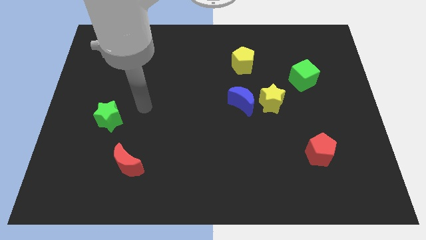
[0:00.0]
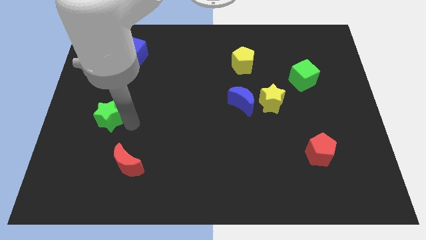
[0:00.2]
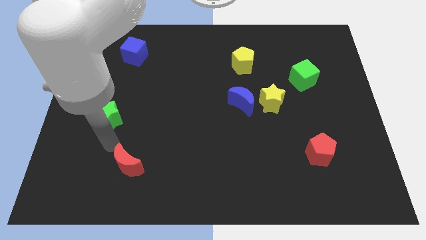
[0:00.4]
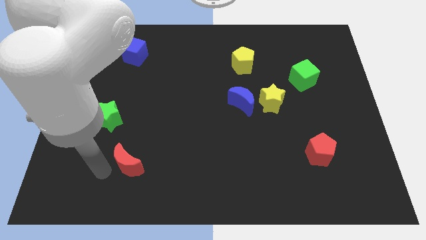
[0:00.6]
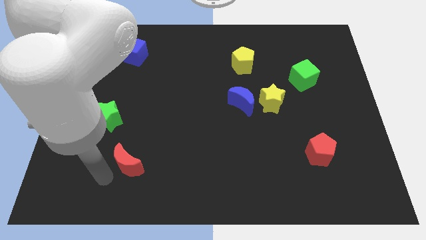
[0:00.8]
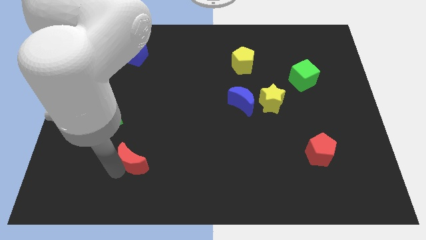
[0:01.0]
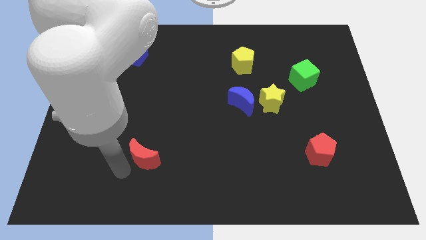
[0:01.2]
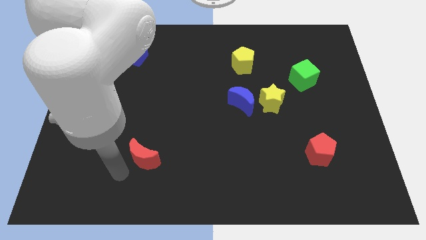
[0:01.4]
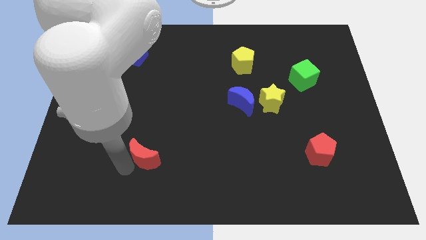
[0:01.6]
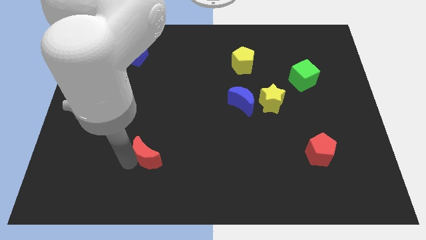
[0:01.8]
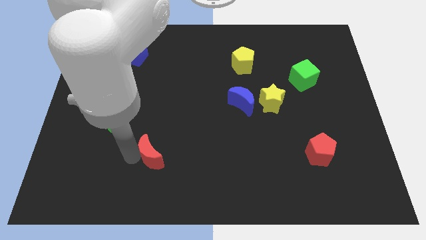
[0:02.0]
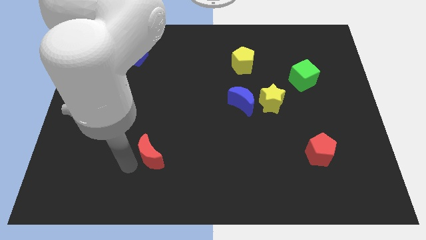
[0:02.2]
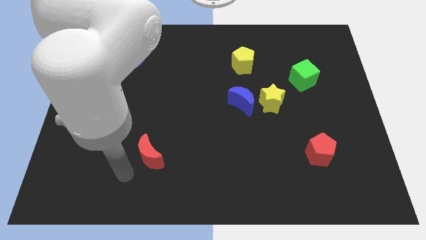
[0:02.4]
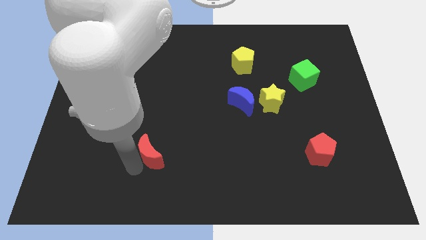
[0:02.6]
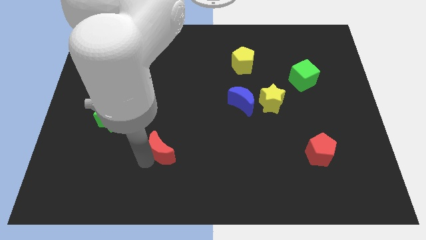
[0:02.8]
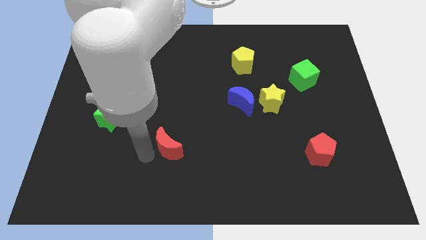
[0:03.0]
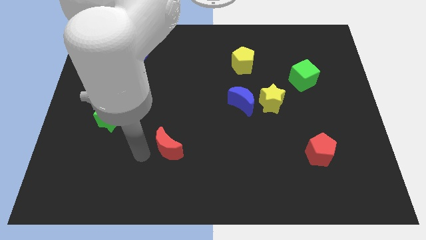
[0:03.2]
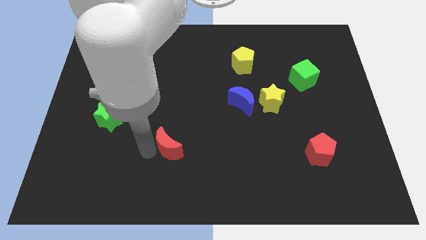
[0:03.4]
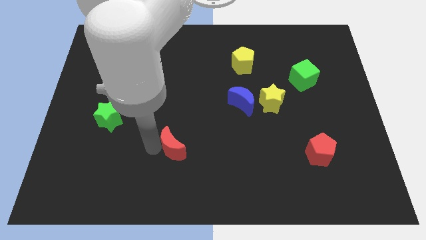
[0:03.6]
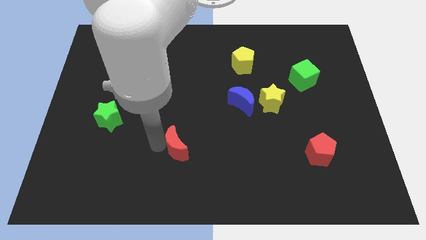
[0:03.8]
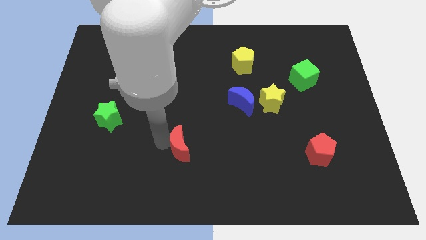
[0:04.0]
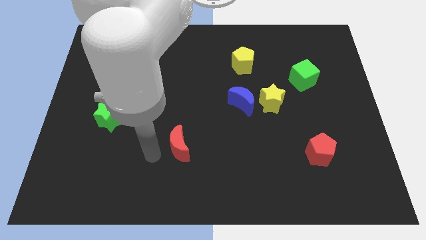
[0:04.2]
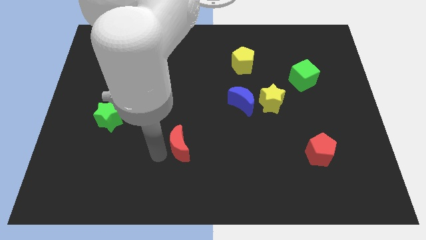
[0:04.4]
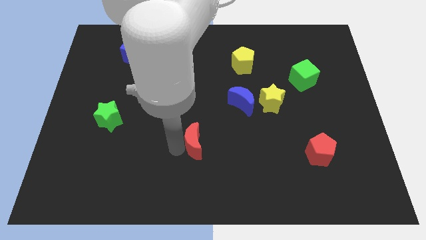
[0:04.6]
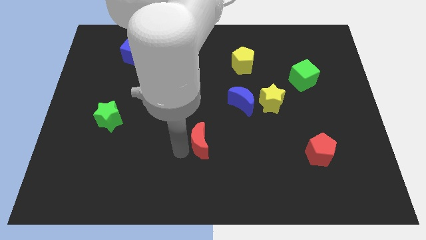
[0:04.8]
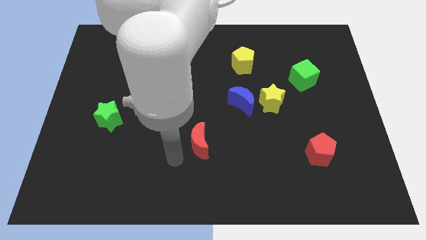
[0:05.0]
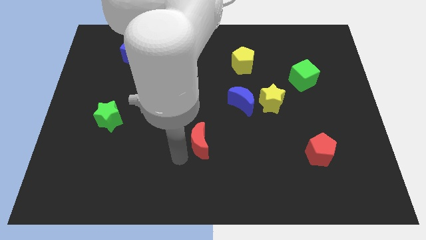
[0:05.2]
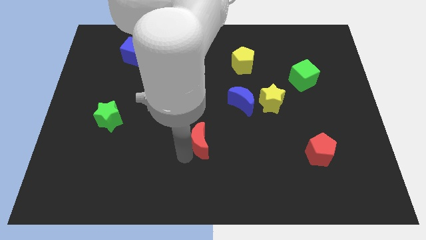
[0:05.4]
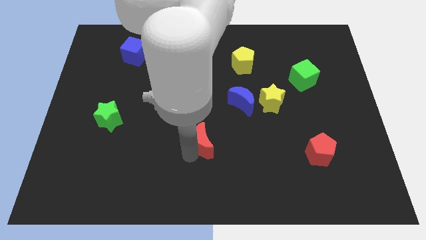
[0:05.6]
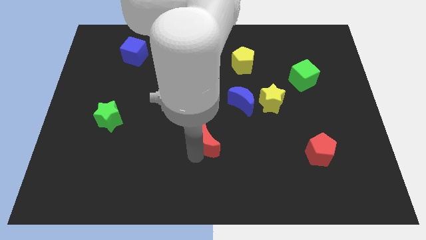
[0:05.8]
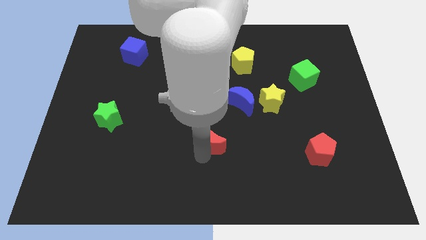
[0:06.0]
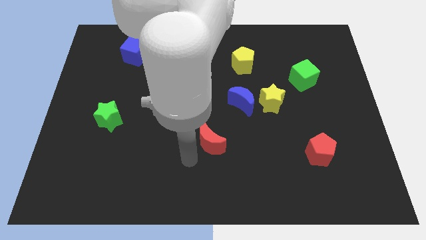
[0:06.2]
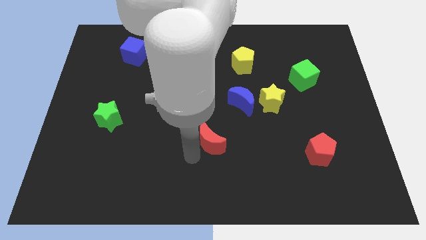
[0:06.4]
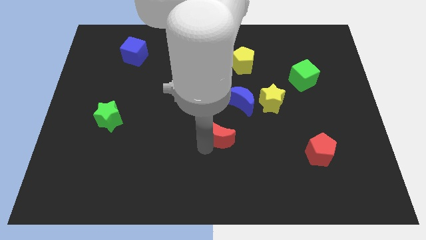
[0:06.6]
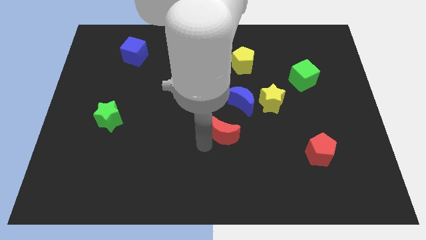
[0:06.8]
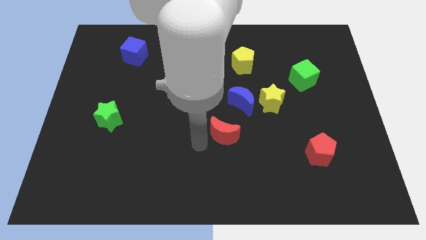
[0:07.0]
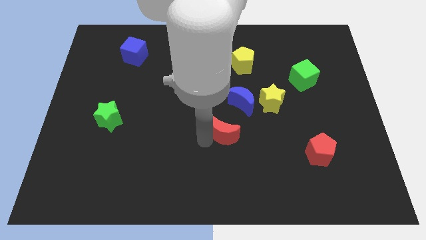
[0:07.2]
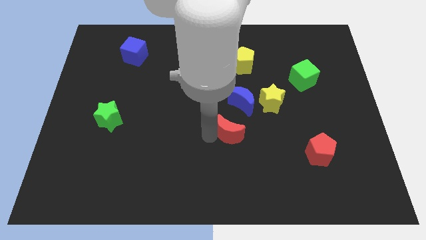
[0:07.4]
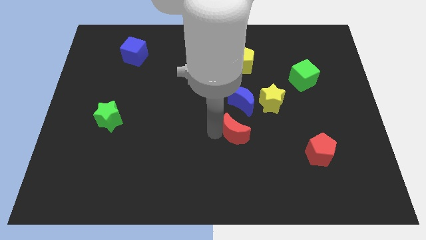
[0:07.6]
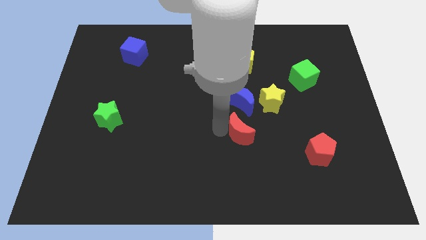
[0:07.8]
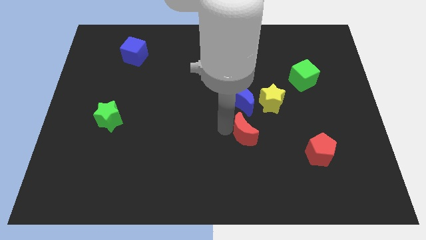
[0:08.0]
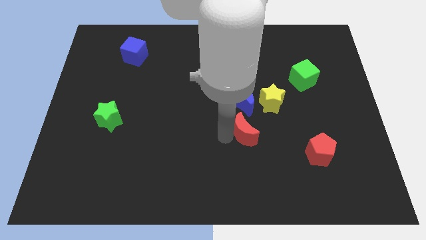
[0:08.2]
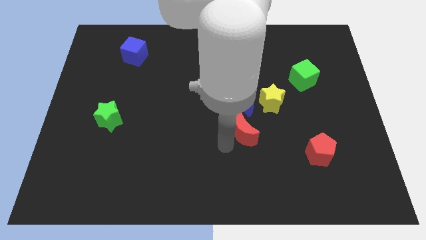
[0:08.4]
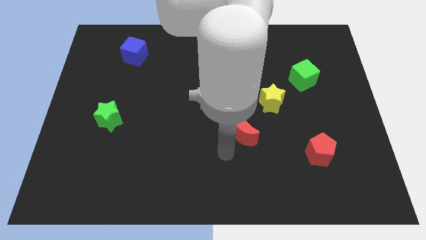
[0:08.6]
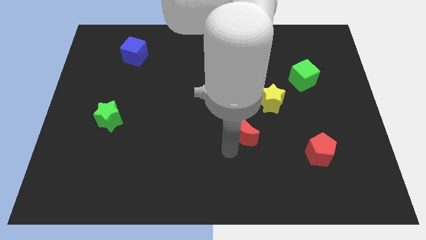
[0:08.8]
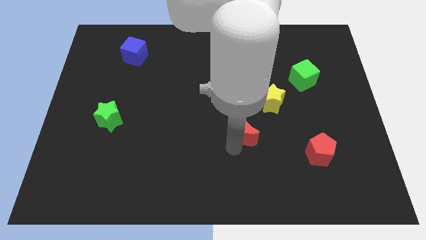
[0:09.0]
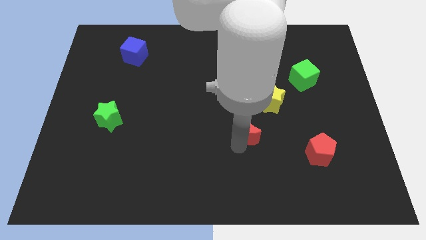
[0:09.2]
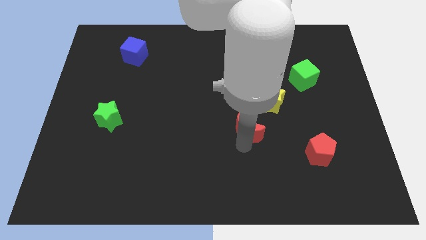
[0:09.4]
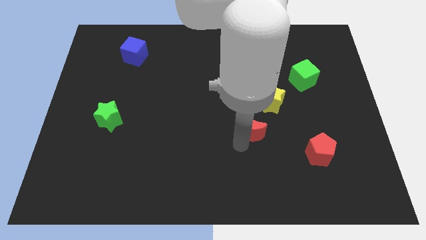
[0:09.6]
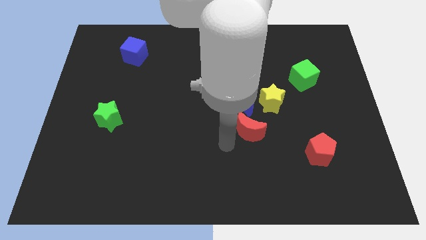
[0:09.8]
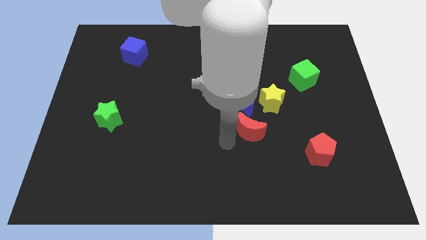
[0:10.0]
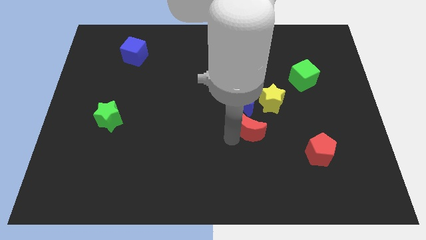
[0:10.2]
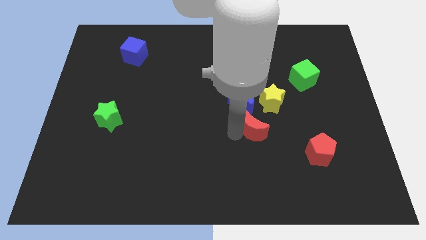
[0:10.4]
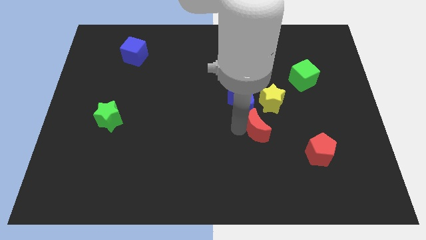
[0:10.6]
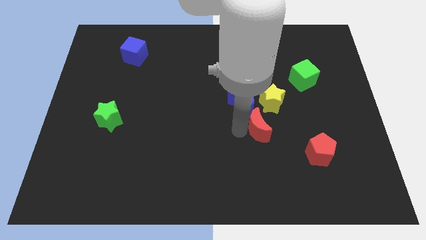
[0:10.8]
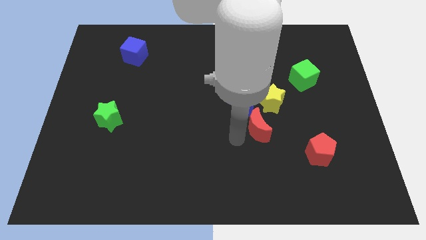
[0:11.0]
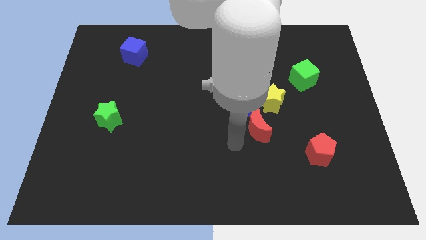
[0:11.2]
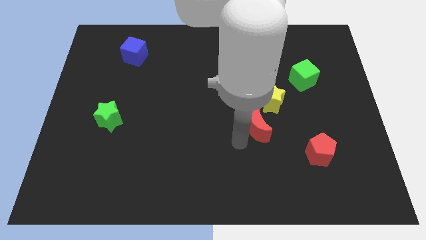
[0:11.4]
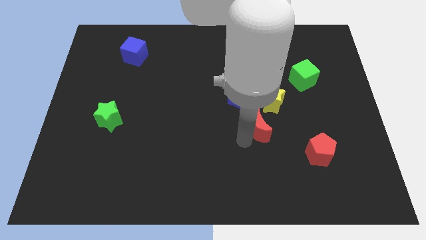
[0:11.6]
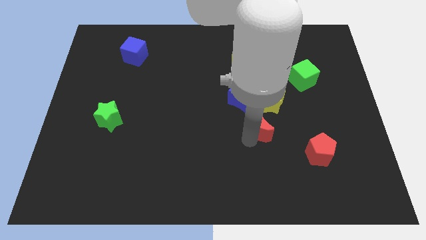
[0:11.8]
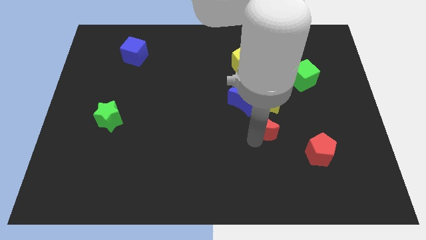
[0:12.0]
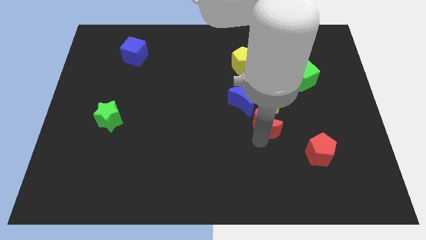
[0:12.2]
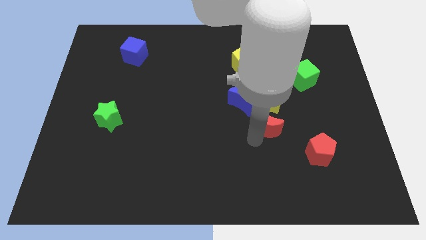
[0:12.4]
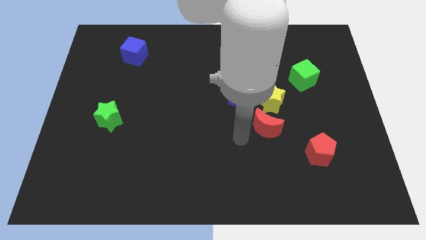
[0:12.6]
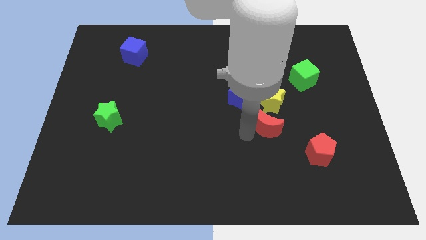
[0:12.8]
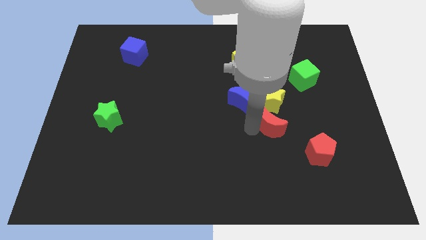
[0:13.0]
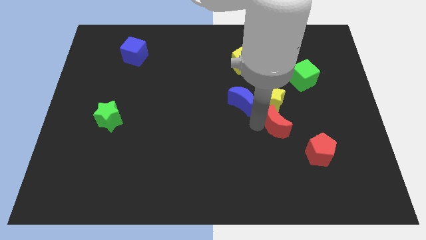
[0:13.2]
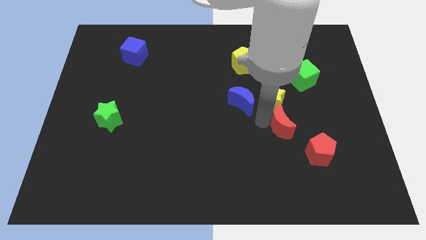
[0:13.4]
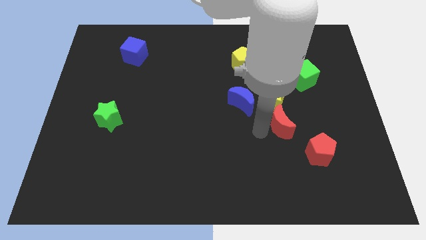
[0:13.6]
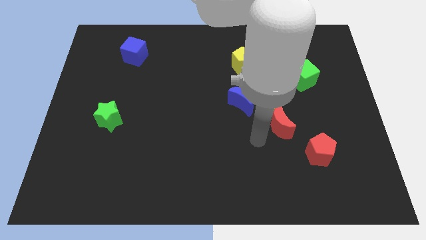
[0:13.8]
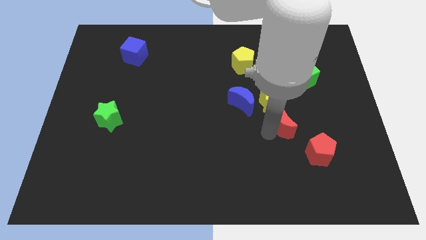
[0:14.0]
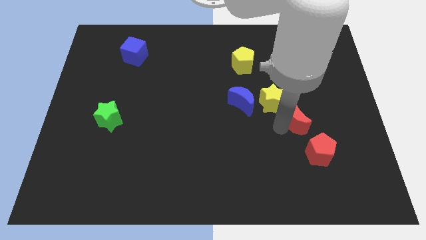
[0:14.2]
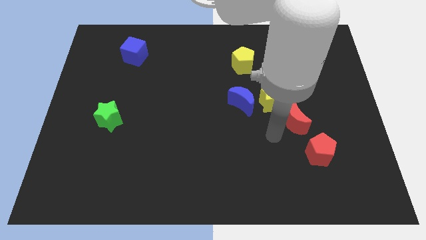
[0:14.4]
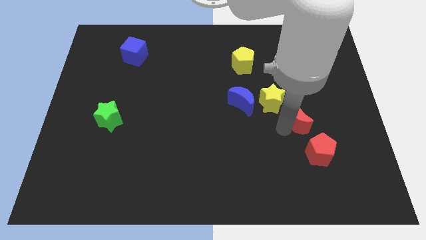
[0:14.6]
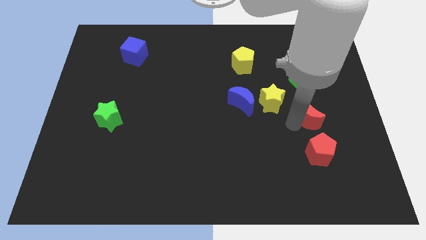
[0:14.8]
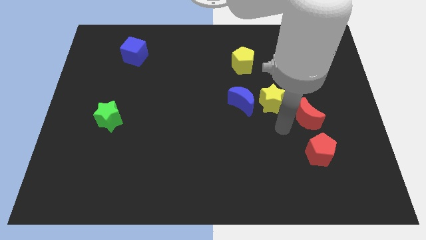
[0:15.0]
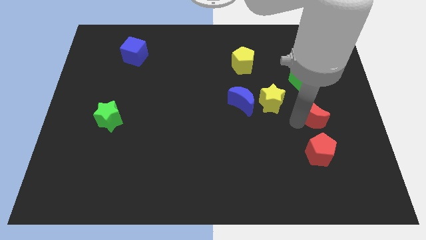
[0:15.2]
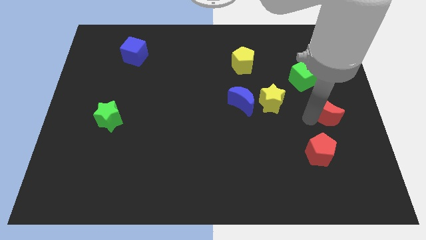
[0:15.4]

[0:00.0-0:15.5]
move the red moon to the right side of the board
